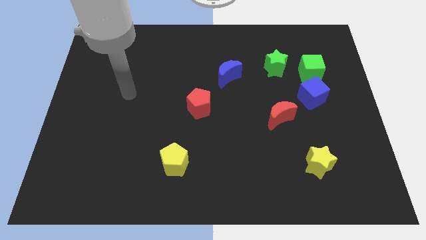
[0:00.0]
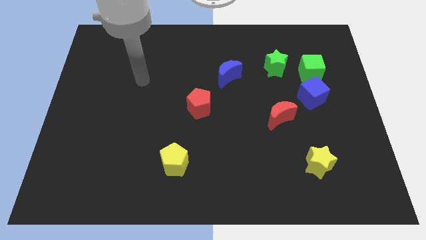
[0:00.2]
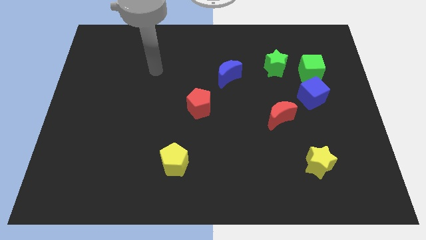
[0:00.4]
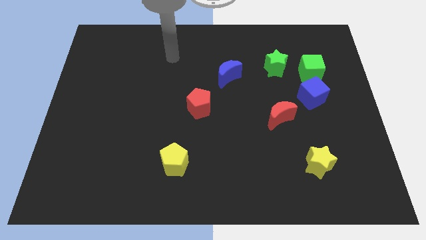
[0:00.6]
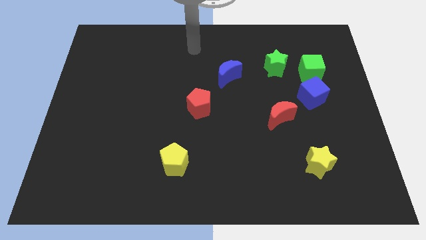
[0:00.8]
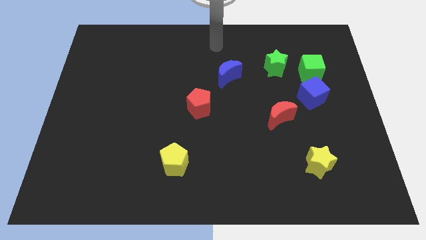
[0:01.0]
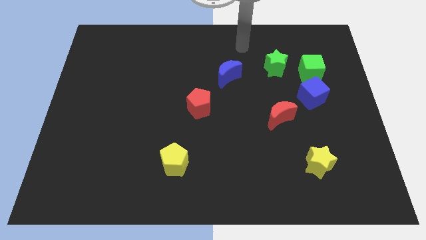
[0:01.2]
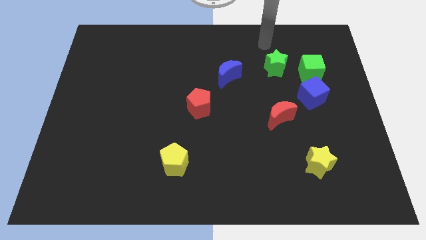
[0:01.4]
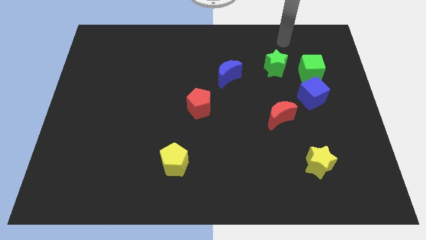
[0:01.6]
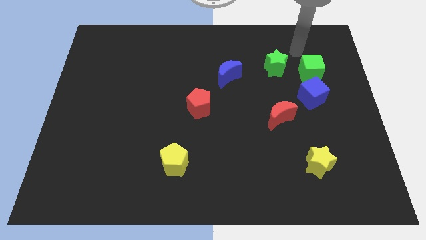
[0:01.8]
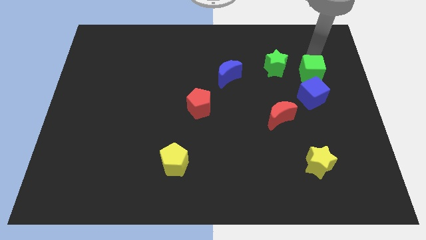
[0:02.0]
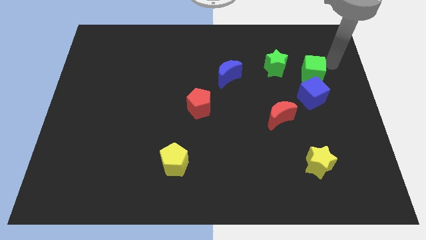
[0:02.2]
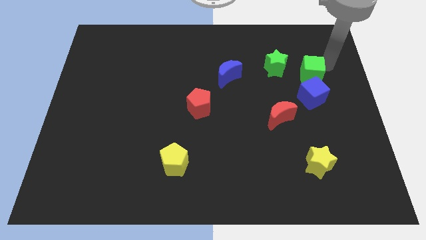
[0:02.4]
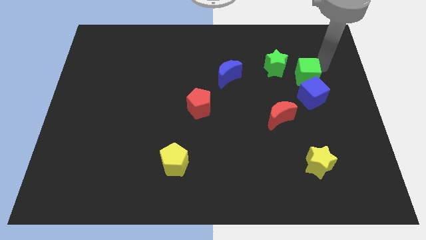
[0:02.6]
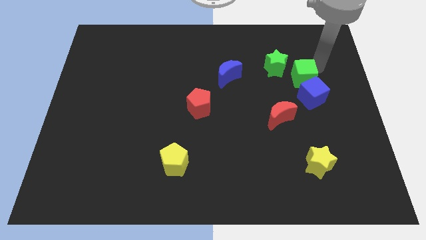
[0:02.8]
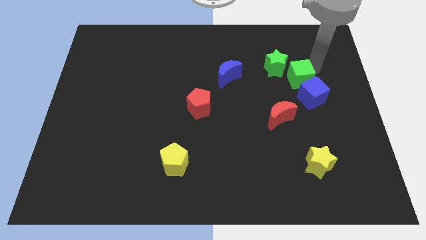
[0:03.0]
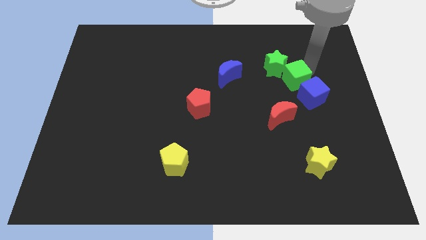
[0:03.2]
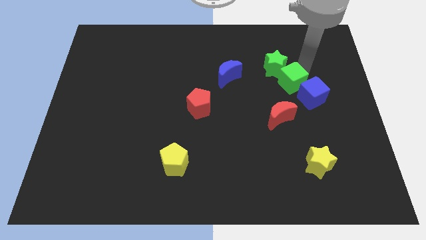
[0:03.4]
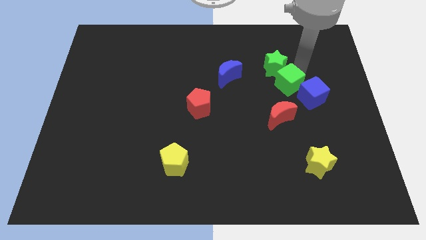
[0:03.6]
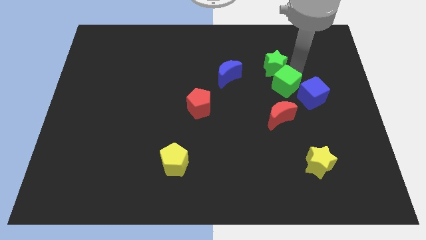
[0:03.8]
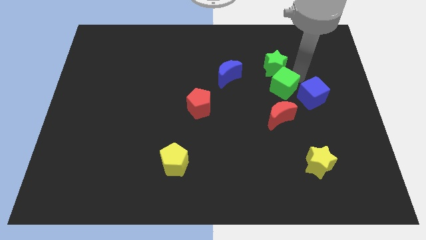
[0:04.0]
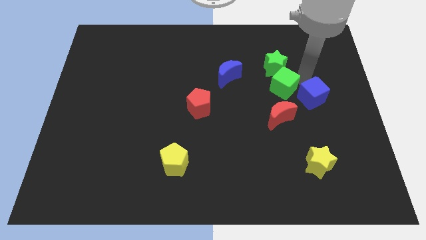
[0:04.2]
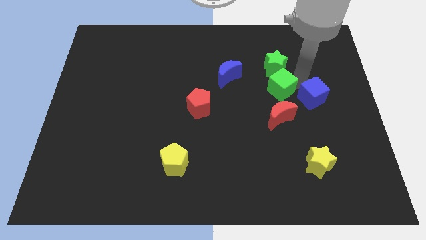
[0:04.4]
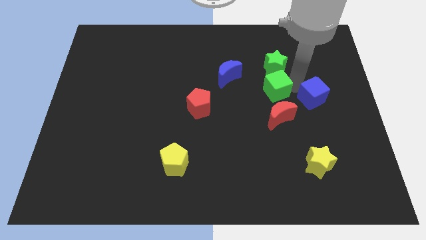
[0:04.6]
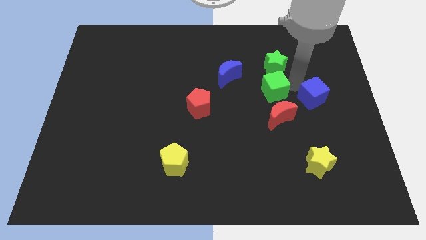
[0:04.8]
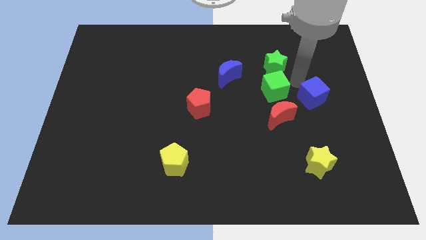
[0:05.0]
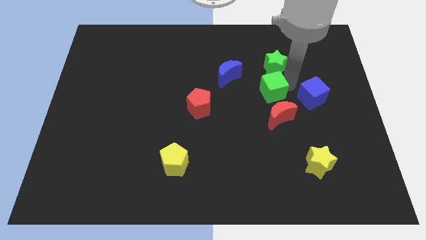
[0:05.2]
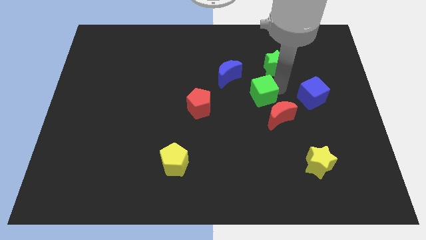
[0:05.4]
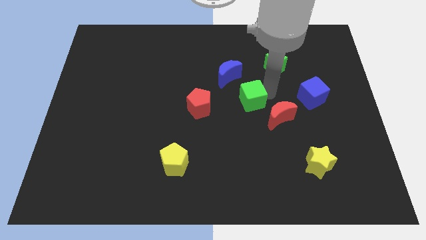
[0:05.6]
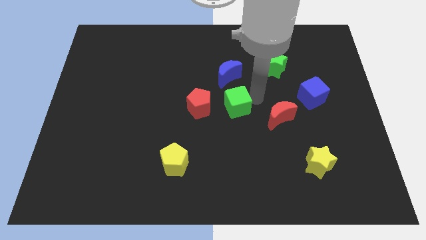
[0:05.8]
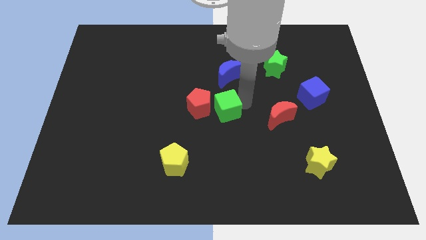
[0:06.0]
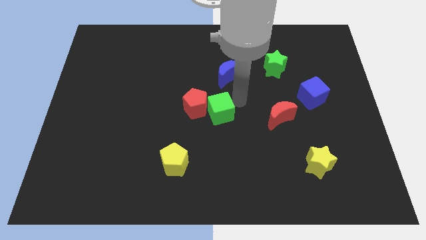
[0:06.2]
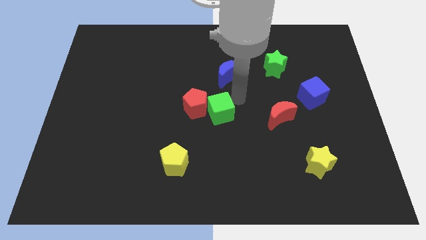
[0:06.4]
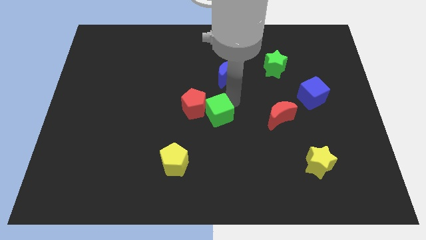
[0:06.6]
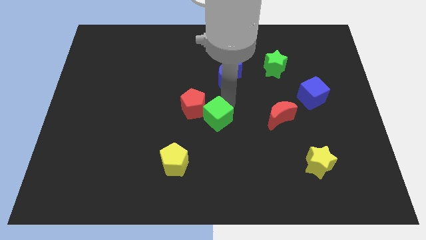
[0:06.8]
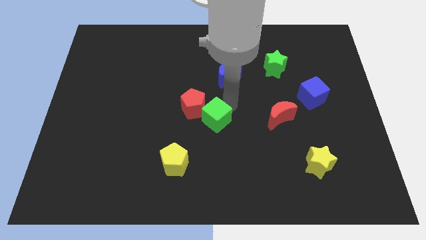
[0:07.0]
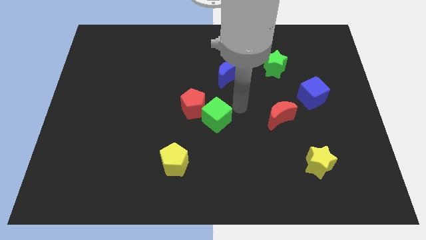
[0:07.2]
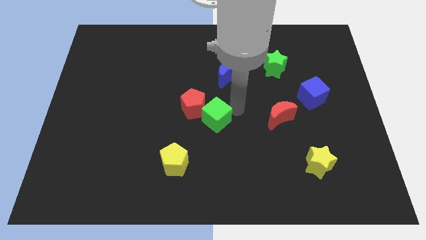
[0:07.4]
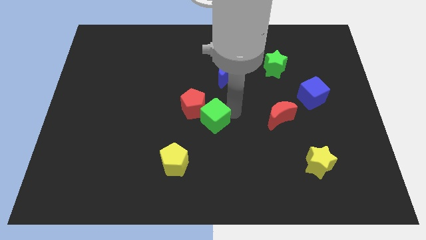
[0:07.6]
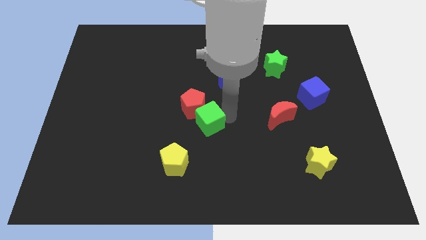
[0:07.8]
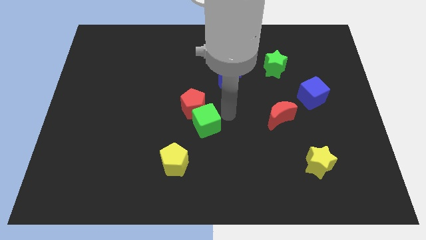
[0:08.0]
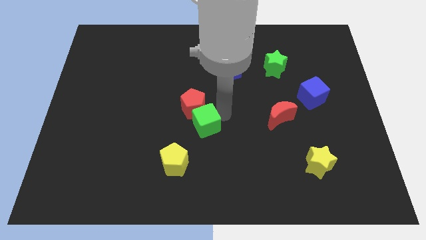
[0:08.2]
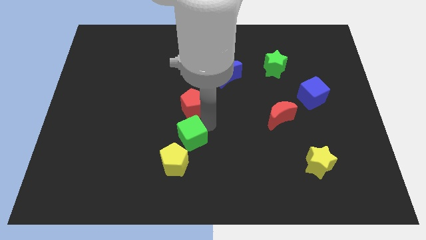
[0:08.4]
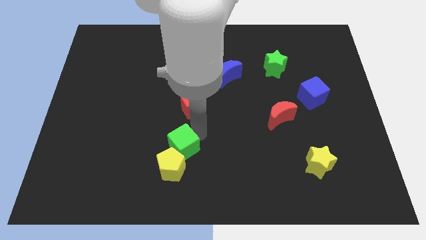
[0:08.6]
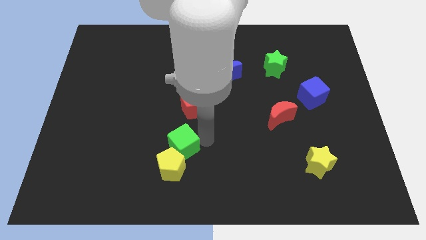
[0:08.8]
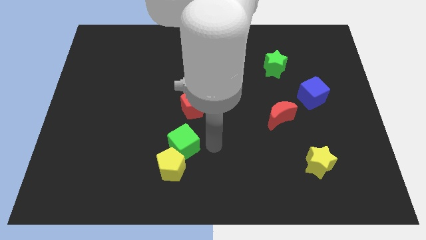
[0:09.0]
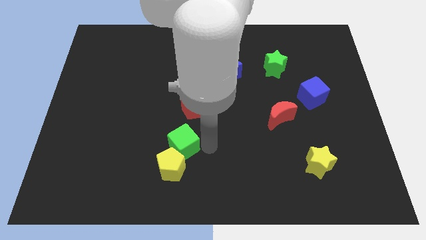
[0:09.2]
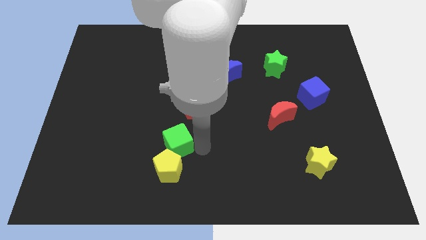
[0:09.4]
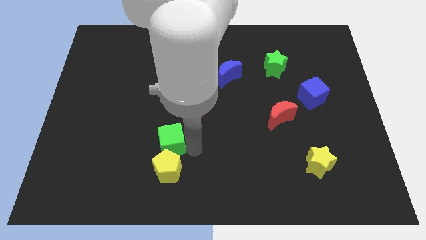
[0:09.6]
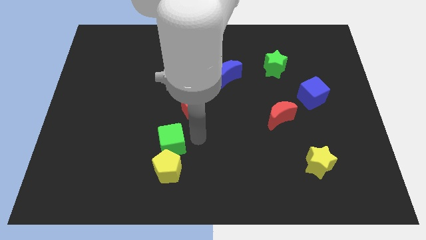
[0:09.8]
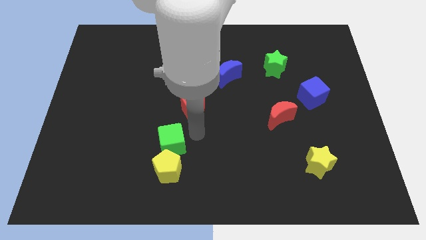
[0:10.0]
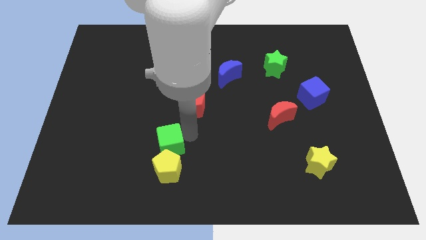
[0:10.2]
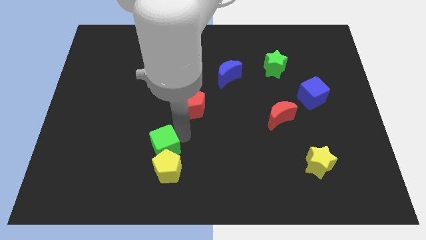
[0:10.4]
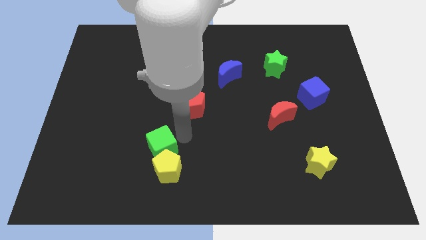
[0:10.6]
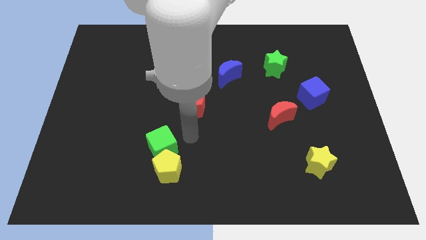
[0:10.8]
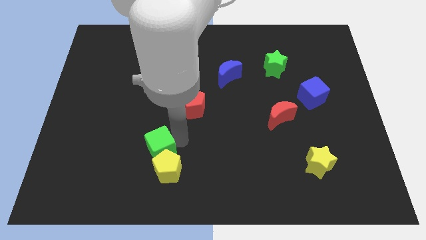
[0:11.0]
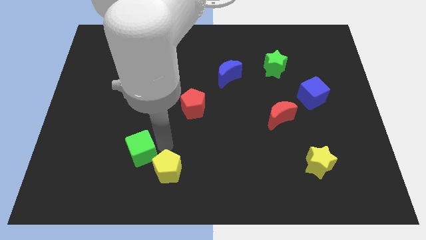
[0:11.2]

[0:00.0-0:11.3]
put the green cube left of the yellow pentagon

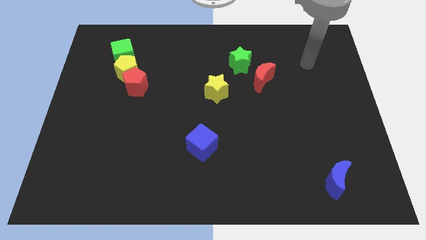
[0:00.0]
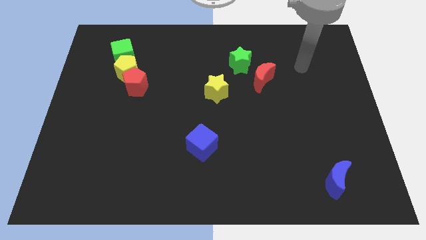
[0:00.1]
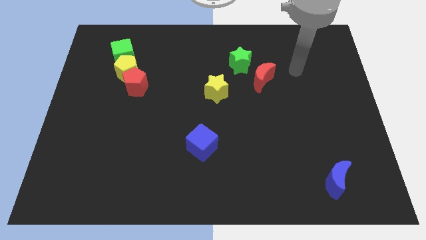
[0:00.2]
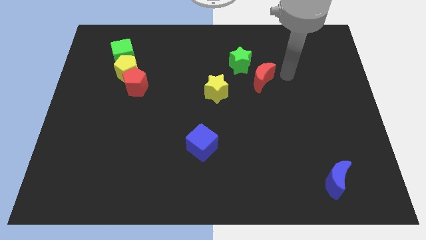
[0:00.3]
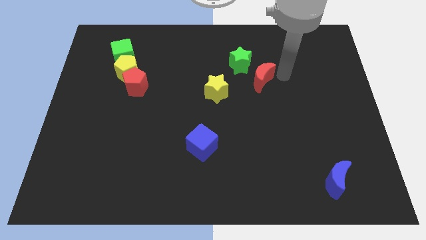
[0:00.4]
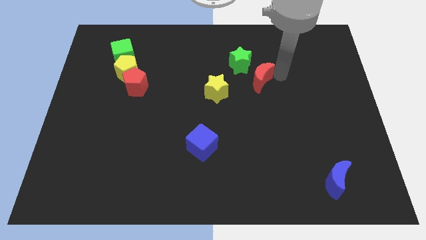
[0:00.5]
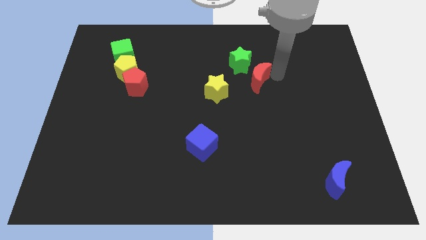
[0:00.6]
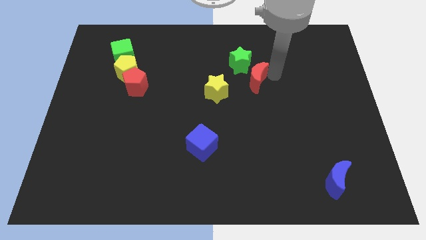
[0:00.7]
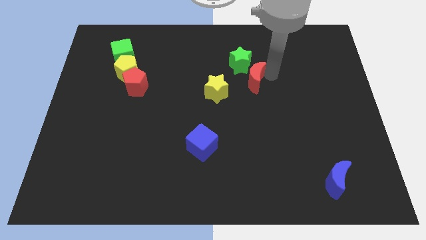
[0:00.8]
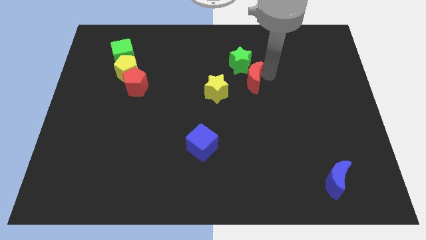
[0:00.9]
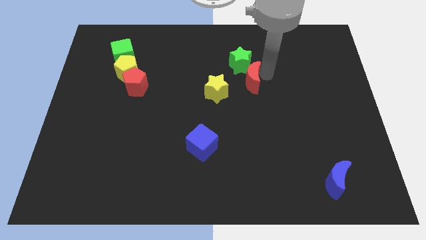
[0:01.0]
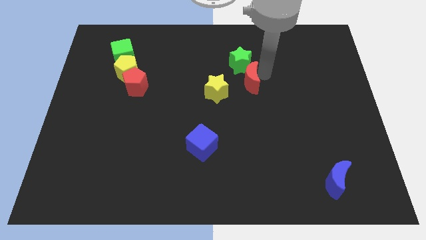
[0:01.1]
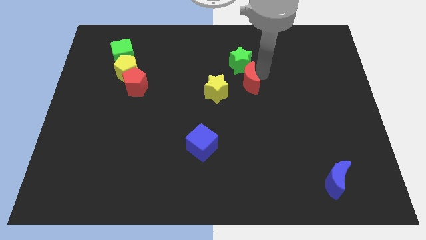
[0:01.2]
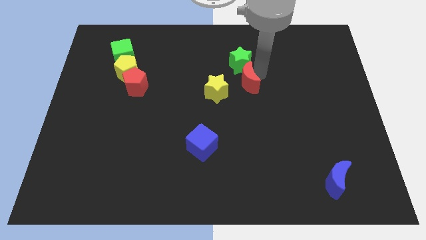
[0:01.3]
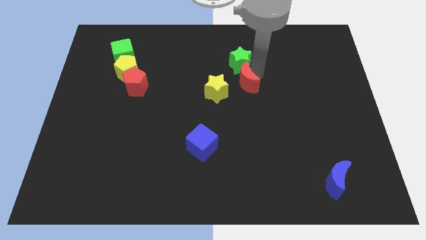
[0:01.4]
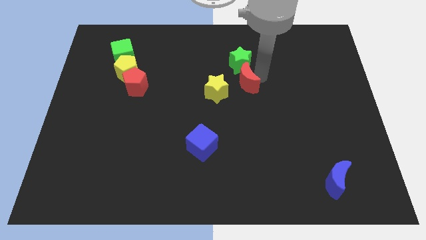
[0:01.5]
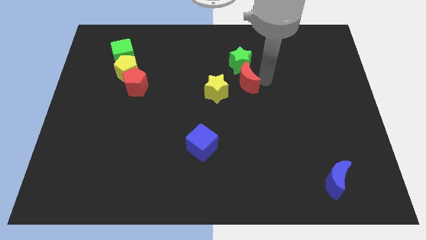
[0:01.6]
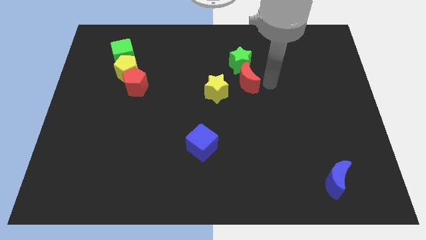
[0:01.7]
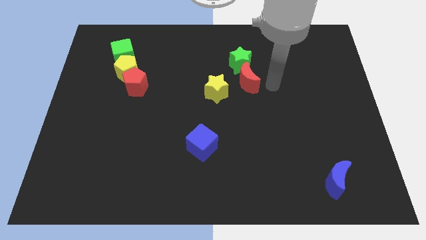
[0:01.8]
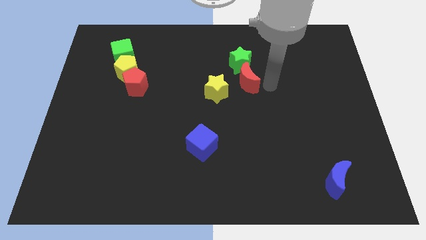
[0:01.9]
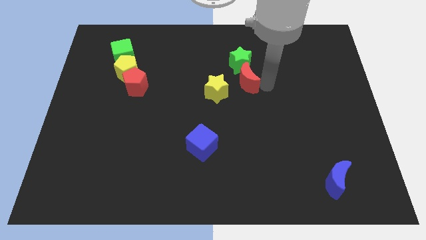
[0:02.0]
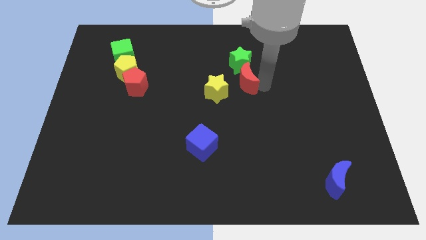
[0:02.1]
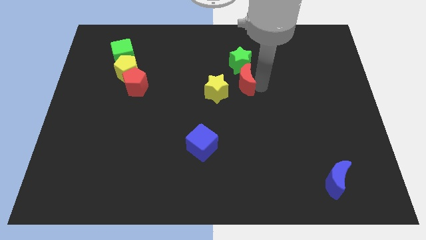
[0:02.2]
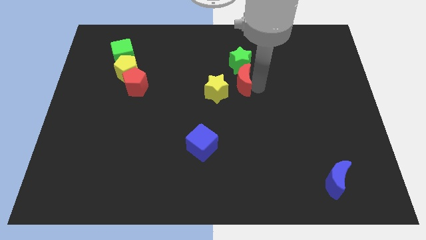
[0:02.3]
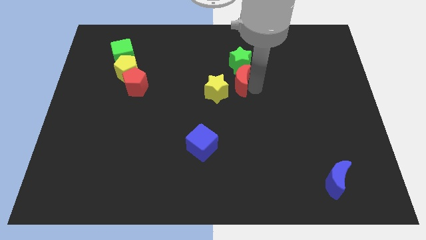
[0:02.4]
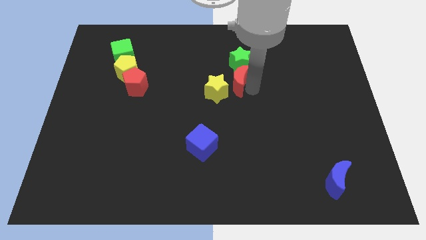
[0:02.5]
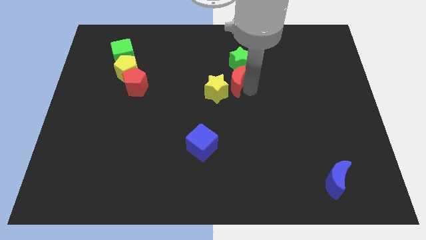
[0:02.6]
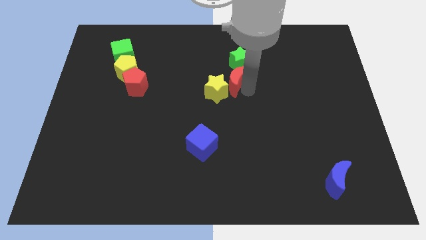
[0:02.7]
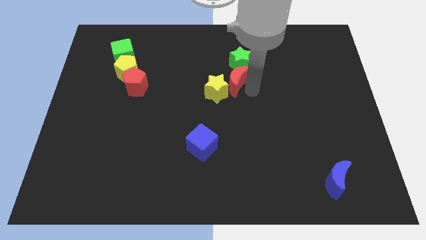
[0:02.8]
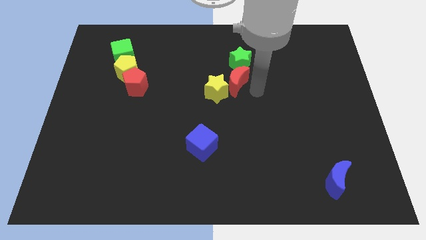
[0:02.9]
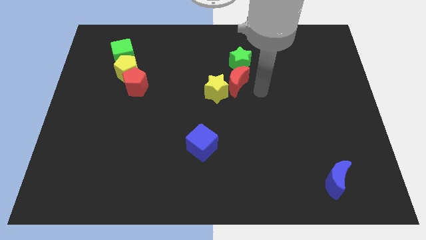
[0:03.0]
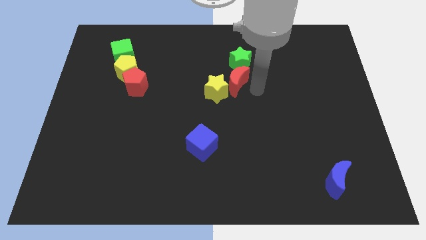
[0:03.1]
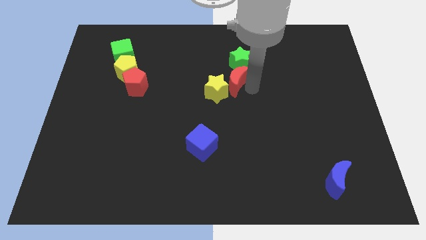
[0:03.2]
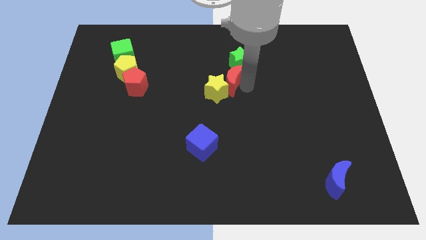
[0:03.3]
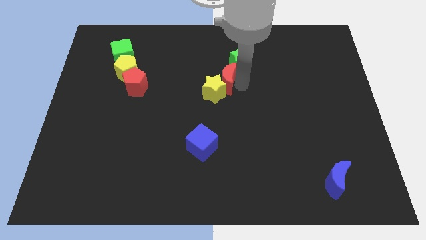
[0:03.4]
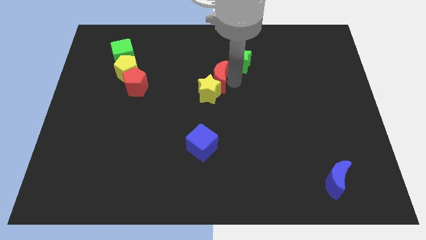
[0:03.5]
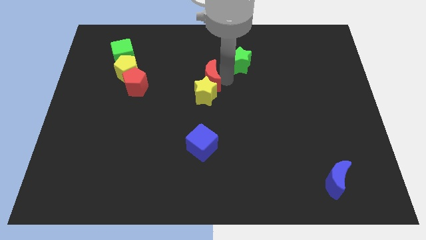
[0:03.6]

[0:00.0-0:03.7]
slide the red moon diagonally up and to the left of the yellow star
